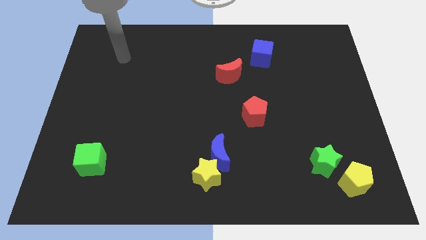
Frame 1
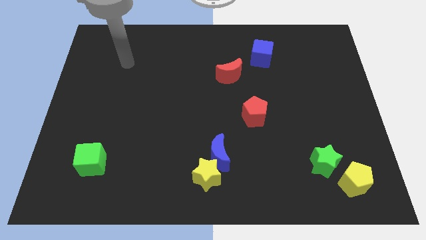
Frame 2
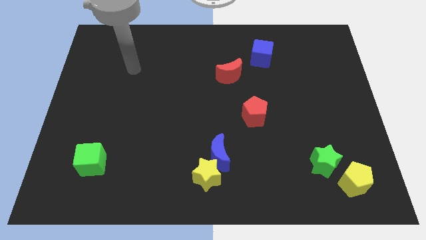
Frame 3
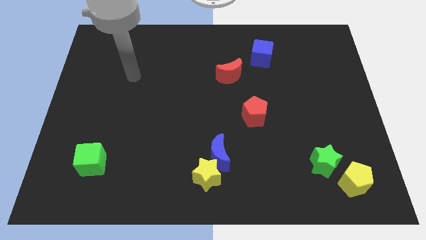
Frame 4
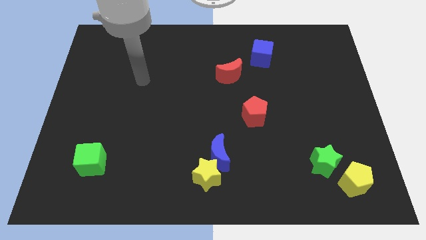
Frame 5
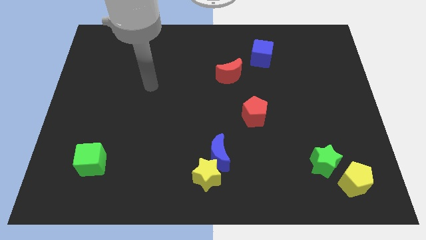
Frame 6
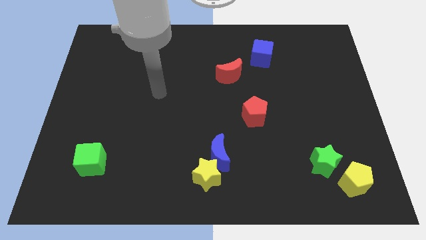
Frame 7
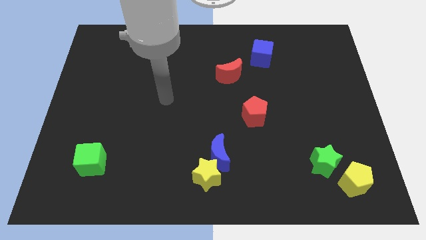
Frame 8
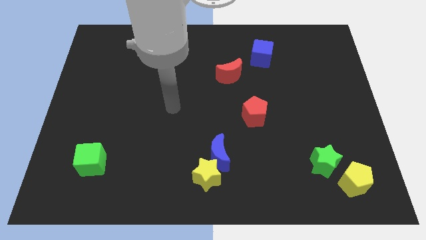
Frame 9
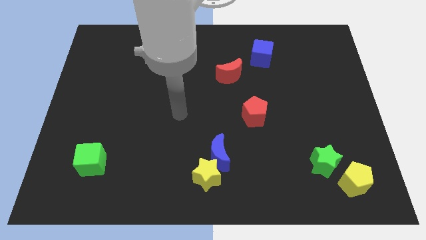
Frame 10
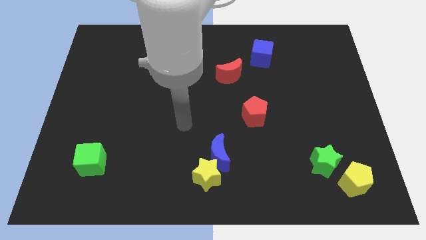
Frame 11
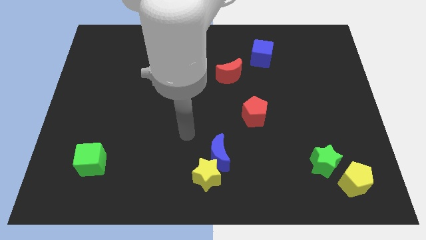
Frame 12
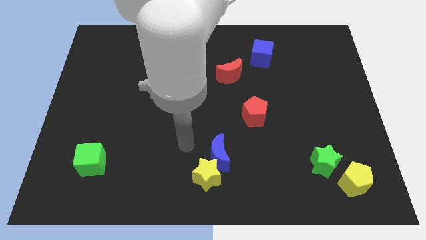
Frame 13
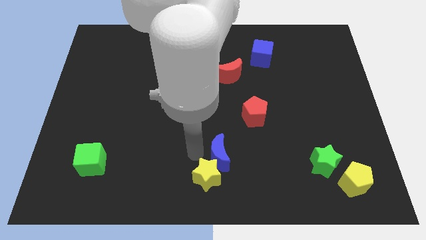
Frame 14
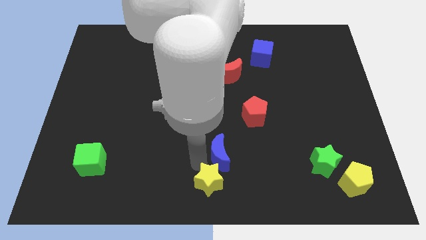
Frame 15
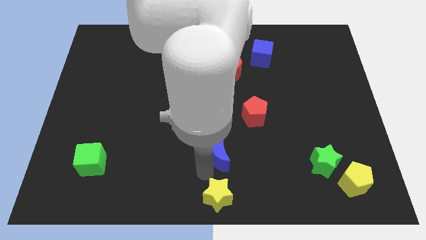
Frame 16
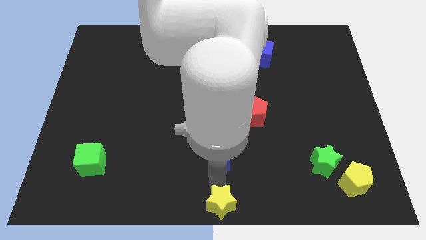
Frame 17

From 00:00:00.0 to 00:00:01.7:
move the blue moon away from the yellow star

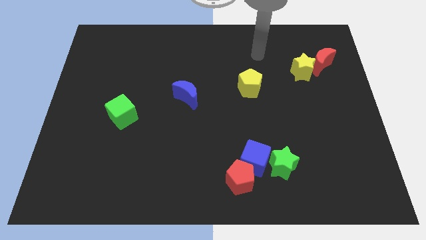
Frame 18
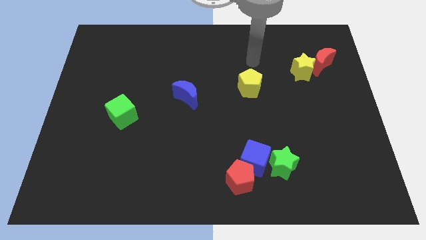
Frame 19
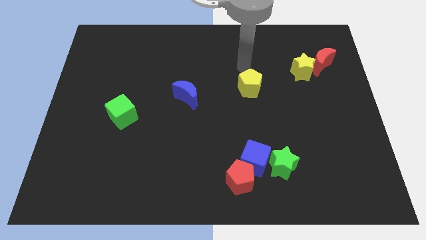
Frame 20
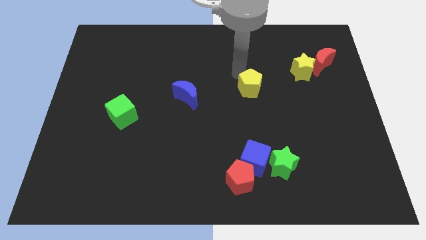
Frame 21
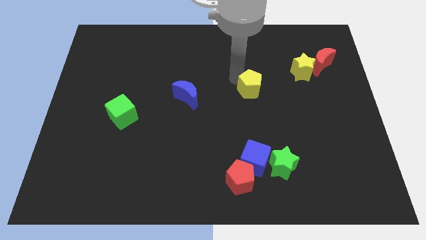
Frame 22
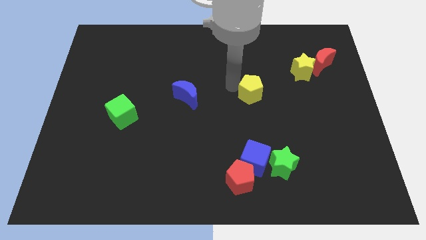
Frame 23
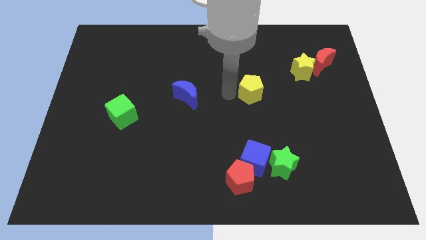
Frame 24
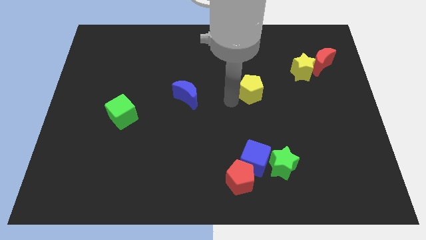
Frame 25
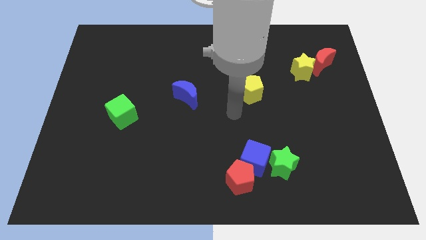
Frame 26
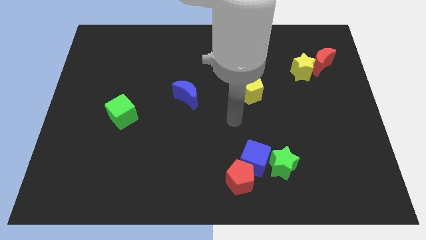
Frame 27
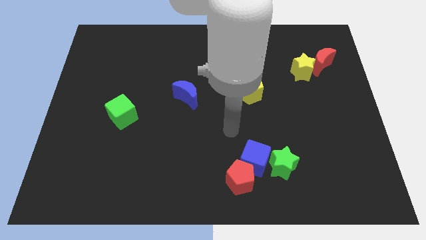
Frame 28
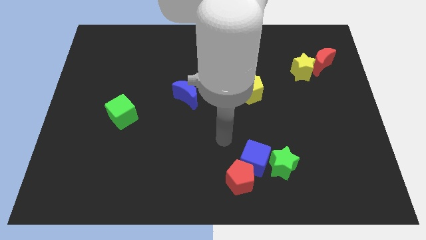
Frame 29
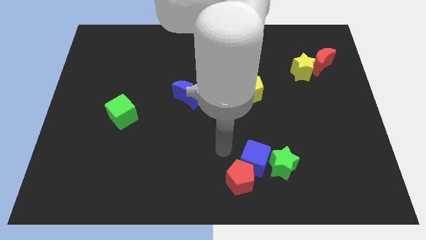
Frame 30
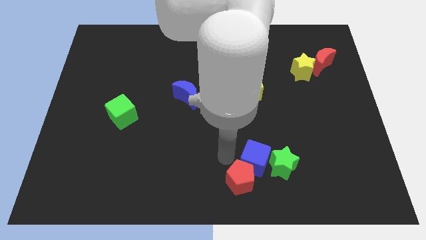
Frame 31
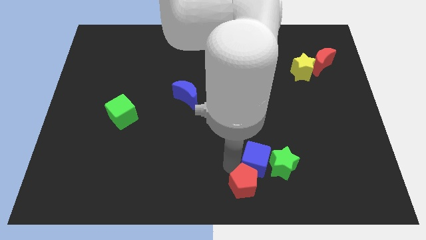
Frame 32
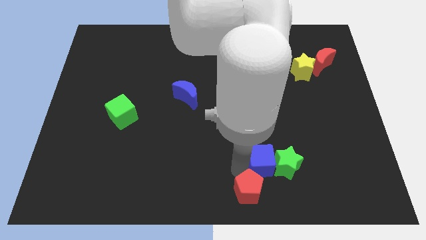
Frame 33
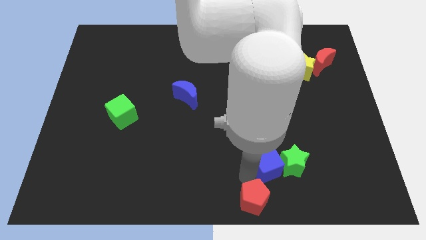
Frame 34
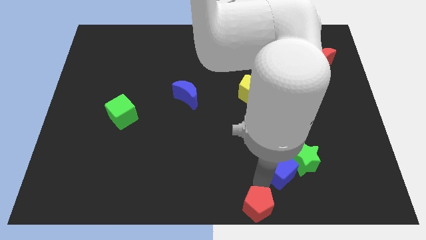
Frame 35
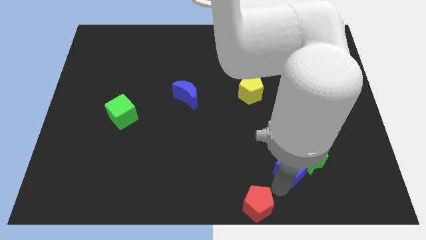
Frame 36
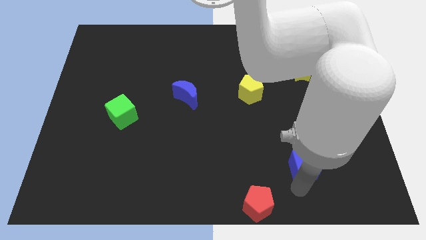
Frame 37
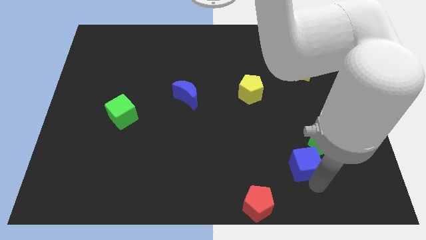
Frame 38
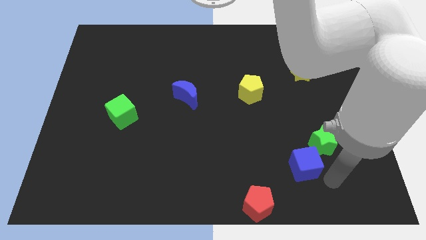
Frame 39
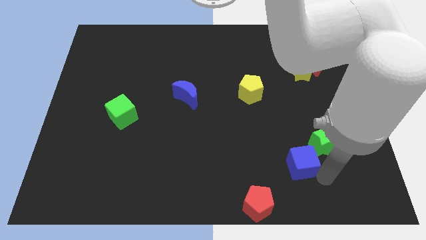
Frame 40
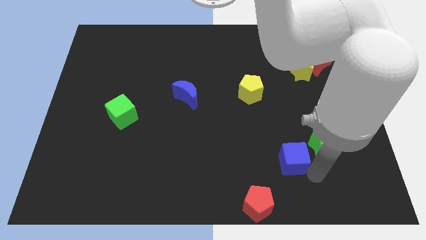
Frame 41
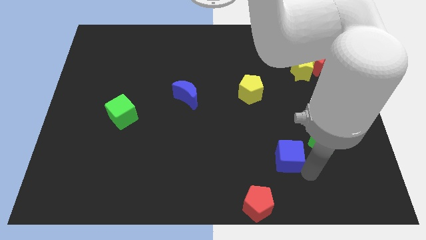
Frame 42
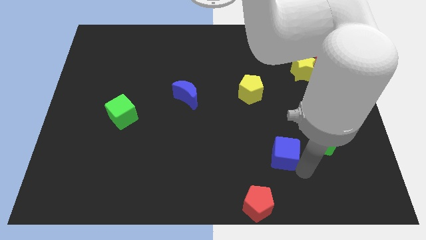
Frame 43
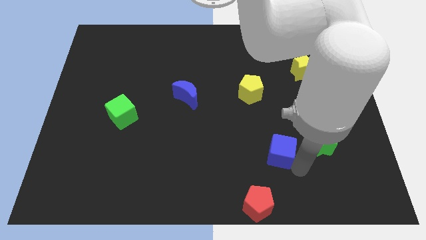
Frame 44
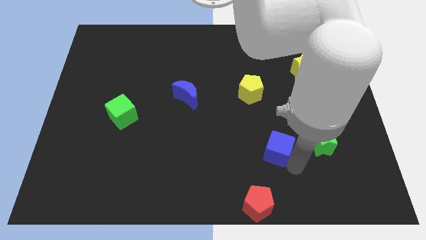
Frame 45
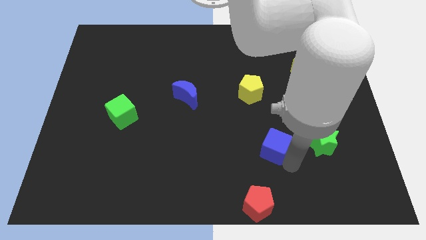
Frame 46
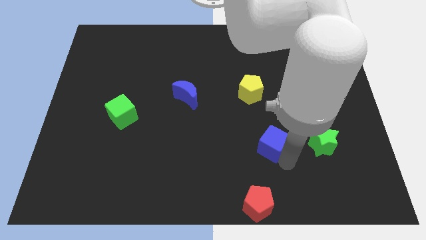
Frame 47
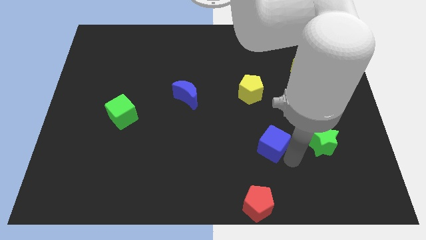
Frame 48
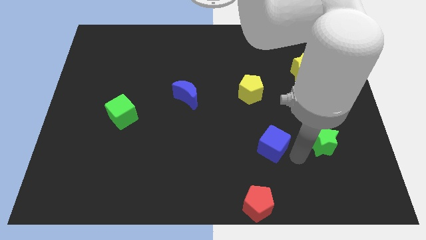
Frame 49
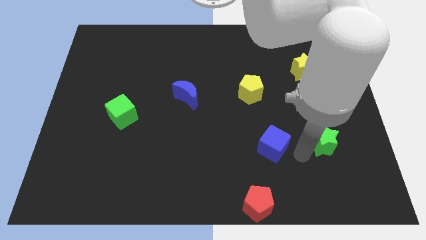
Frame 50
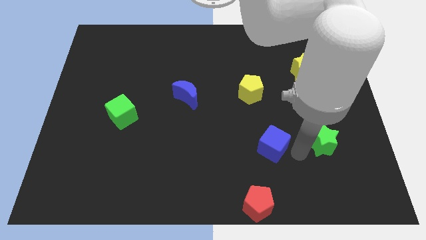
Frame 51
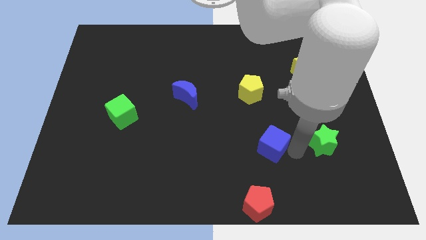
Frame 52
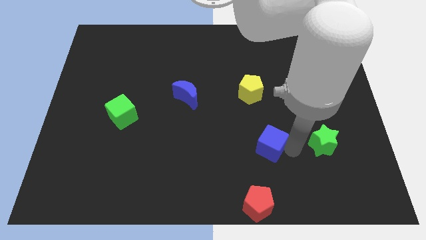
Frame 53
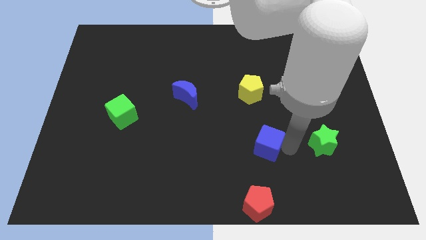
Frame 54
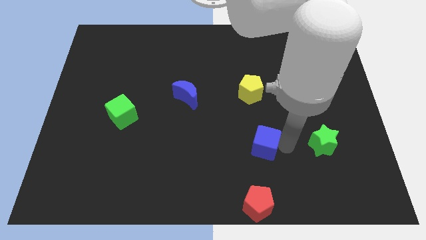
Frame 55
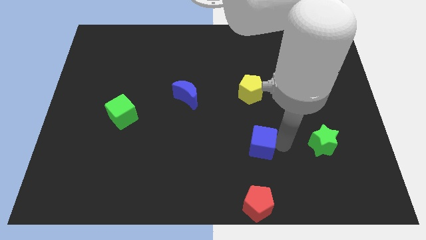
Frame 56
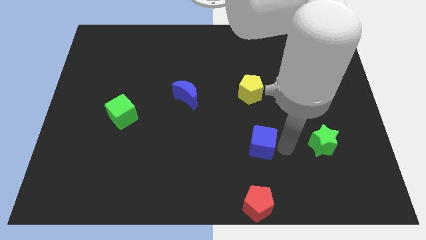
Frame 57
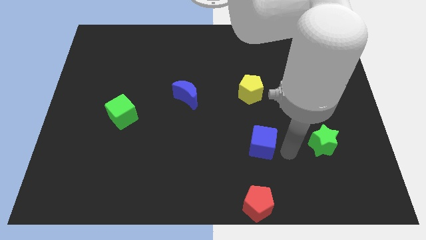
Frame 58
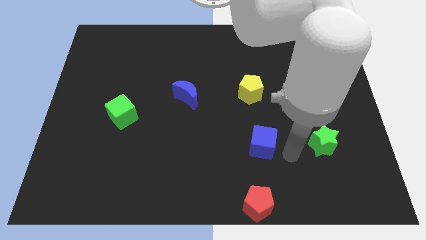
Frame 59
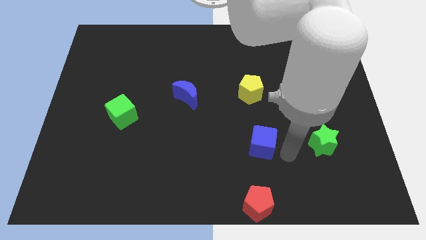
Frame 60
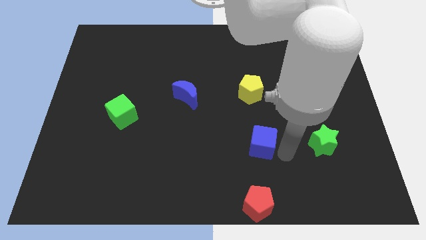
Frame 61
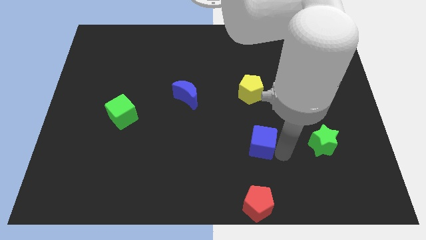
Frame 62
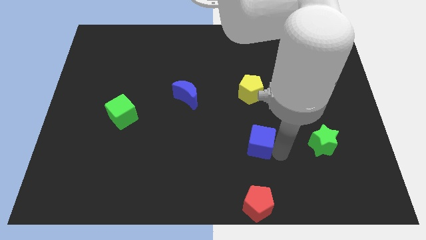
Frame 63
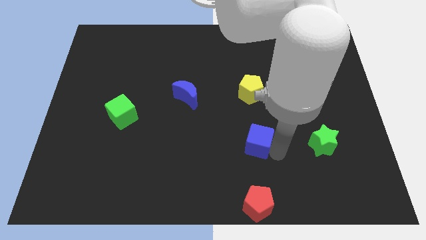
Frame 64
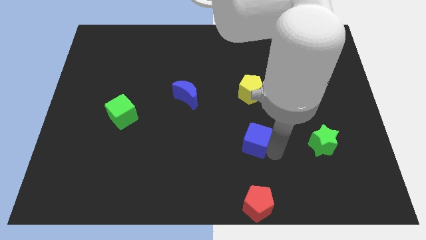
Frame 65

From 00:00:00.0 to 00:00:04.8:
separate the blue cube from the red pentagon and green star

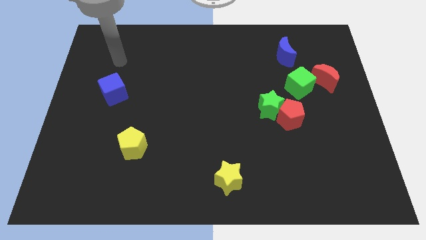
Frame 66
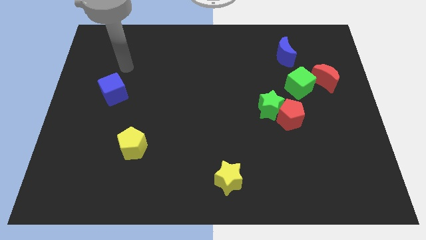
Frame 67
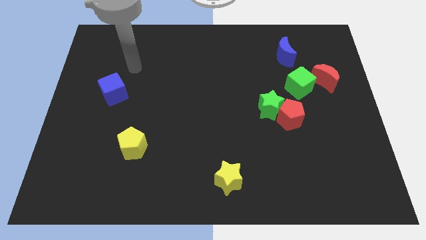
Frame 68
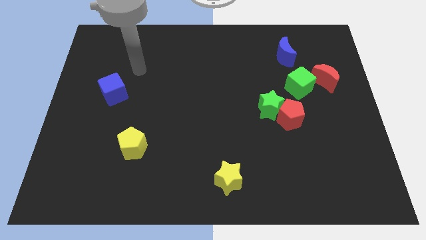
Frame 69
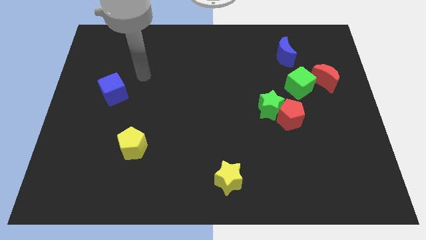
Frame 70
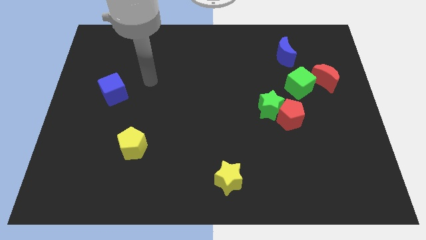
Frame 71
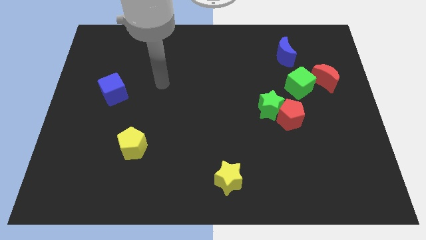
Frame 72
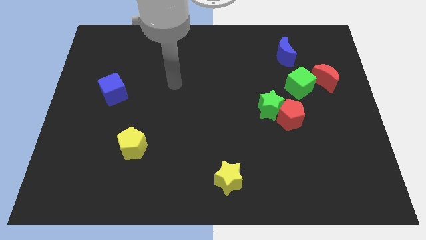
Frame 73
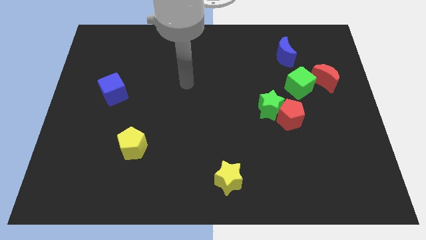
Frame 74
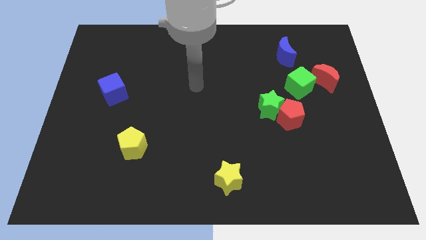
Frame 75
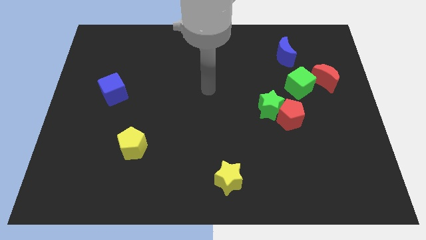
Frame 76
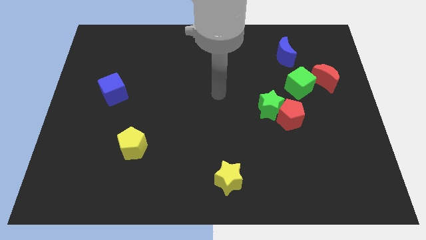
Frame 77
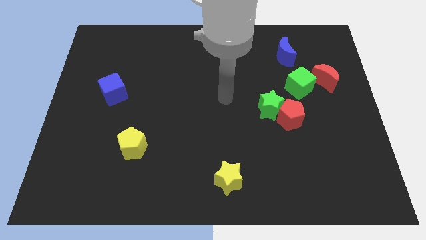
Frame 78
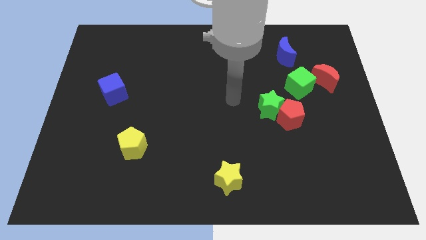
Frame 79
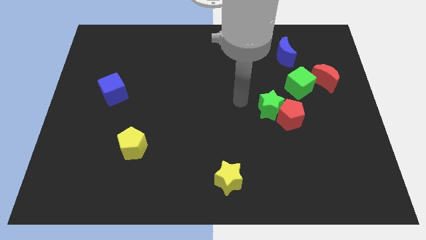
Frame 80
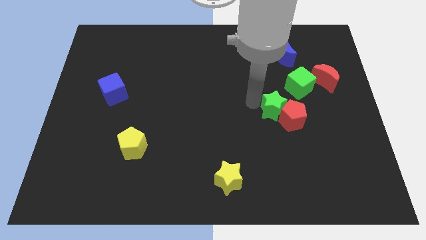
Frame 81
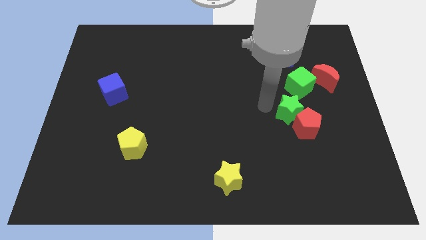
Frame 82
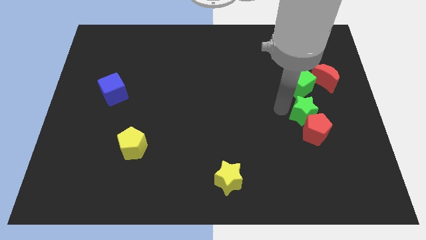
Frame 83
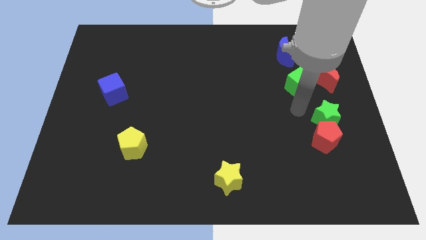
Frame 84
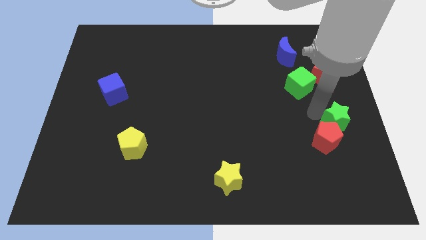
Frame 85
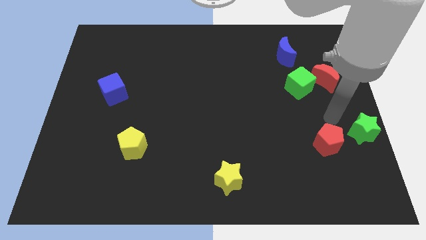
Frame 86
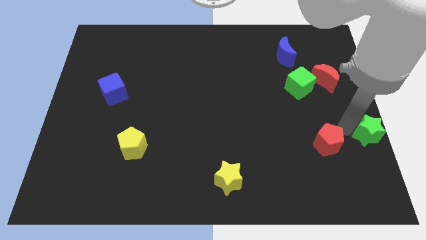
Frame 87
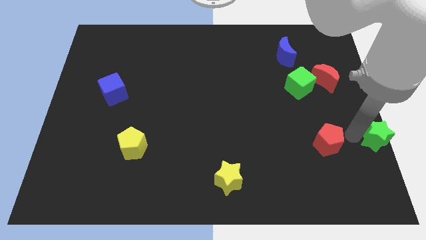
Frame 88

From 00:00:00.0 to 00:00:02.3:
pull the red pentagon apart from the green star

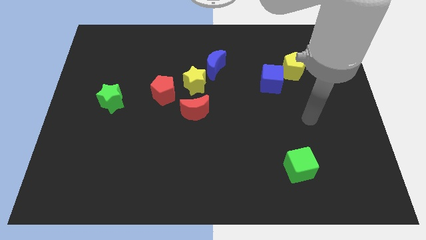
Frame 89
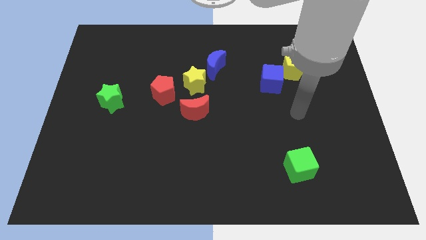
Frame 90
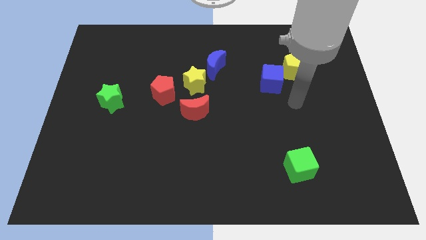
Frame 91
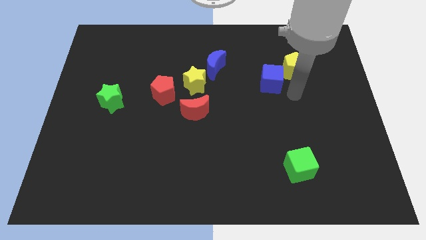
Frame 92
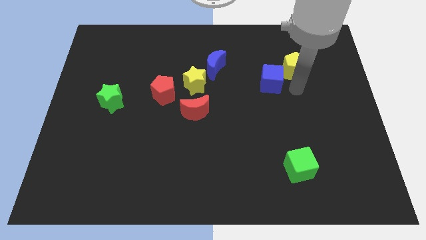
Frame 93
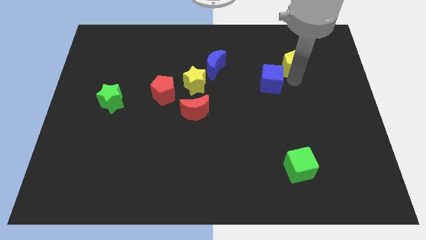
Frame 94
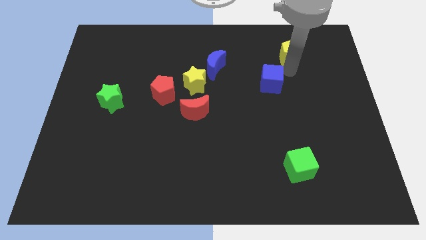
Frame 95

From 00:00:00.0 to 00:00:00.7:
separate the blue cube from the yellow pentagon

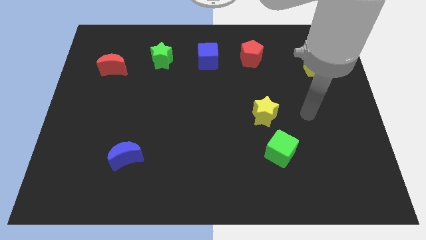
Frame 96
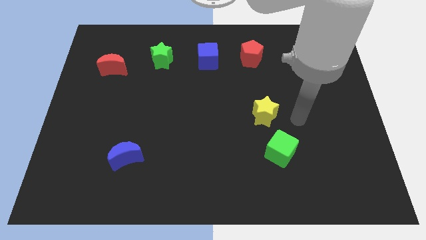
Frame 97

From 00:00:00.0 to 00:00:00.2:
separate the green cube from the yellow star
